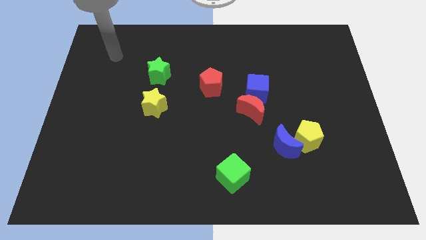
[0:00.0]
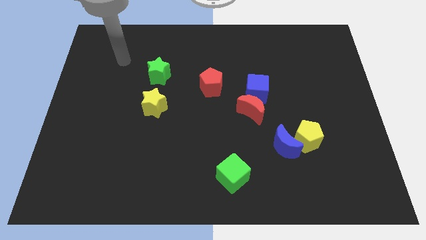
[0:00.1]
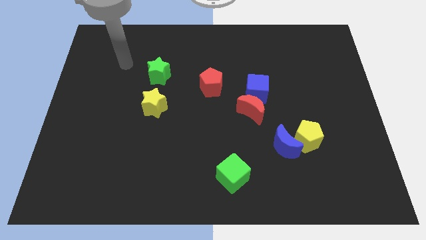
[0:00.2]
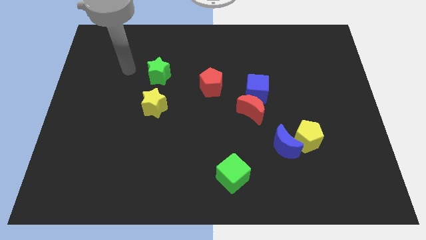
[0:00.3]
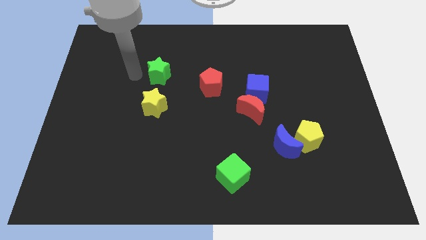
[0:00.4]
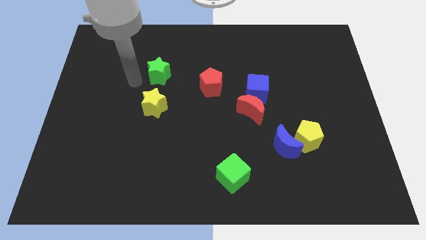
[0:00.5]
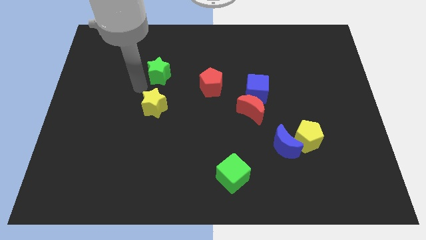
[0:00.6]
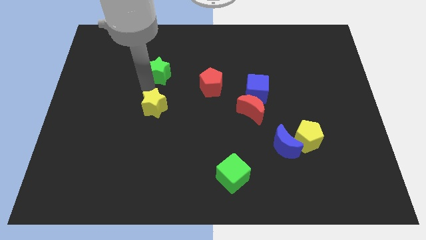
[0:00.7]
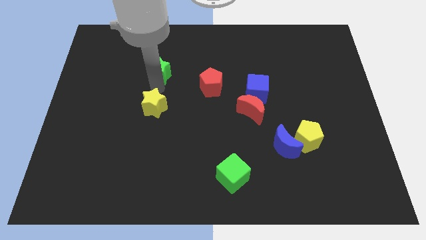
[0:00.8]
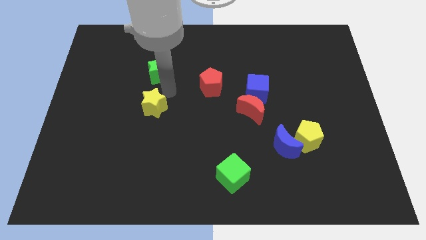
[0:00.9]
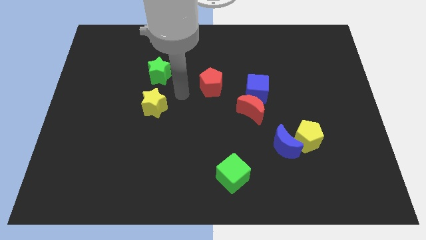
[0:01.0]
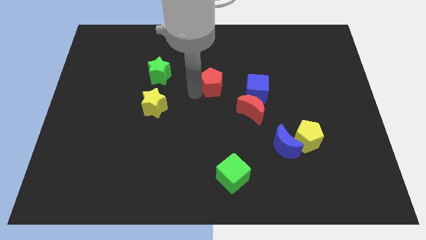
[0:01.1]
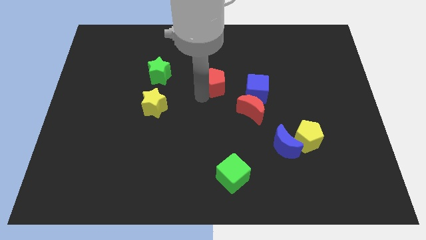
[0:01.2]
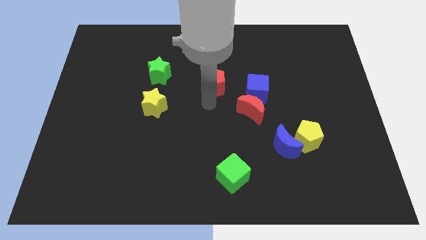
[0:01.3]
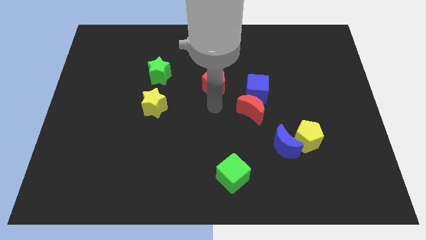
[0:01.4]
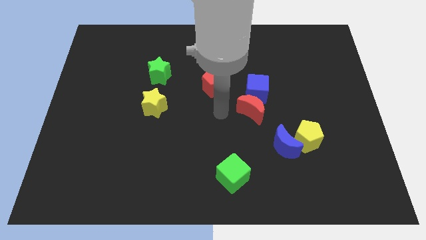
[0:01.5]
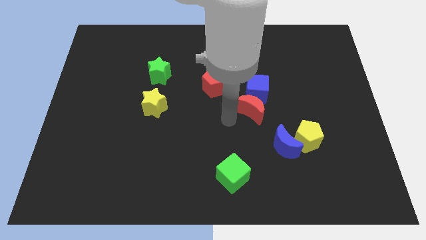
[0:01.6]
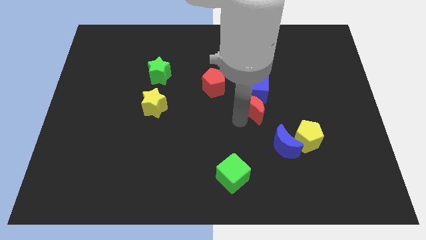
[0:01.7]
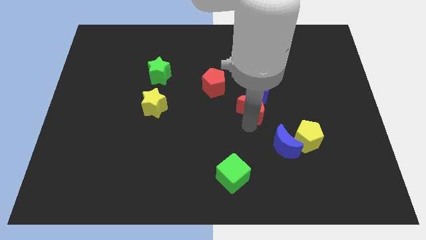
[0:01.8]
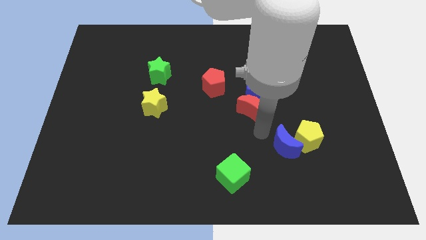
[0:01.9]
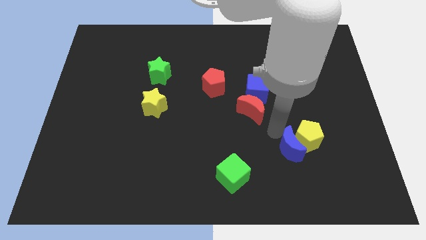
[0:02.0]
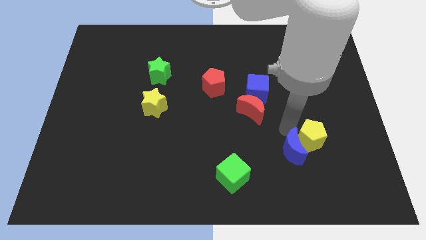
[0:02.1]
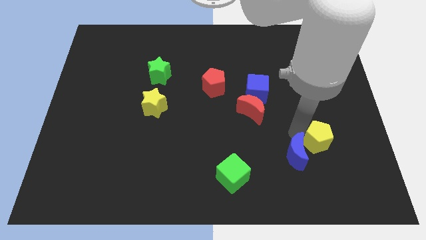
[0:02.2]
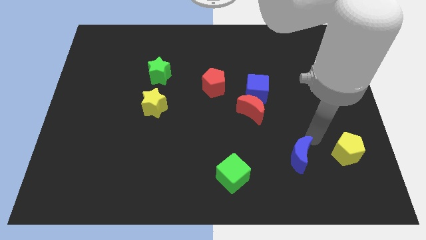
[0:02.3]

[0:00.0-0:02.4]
separate the blue moon from the yellow pentagon

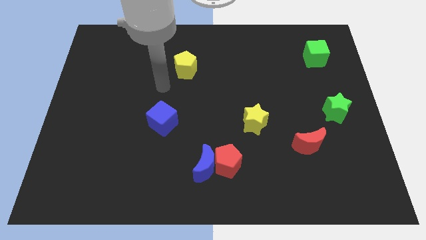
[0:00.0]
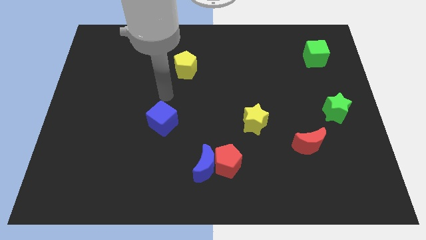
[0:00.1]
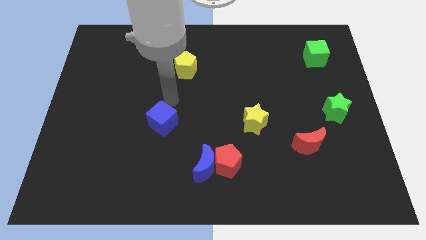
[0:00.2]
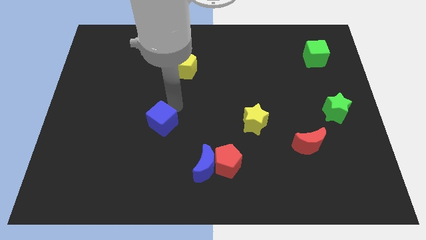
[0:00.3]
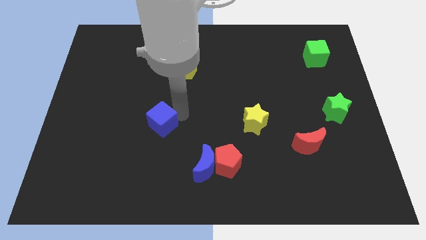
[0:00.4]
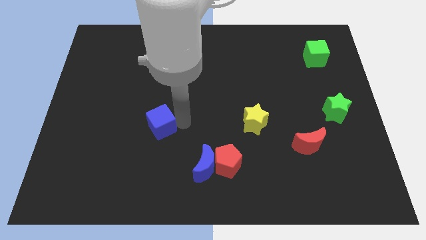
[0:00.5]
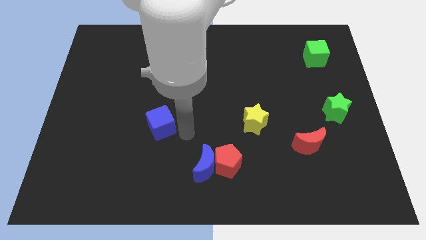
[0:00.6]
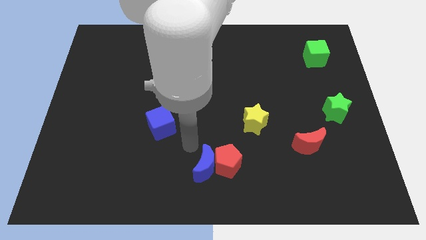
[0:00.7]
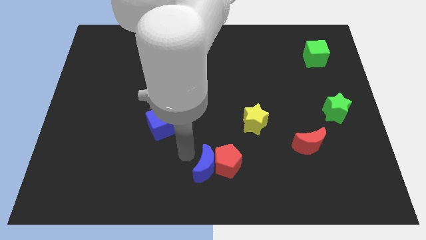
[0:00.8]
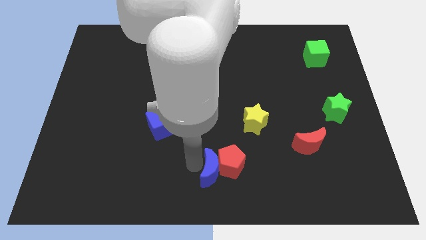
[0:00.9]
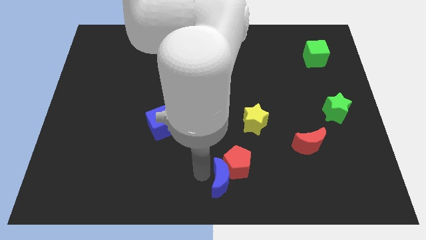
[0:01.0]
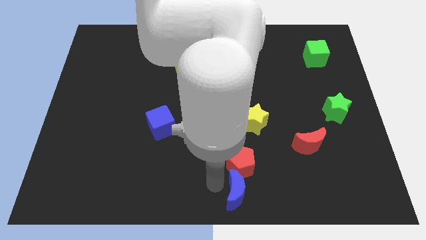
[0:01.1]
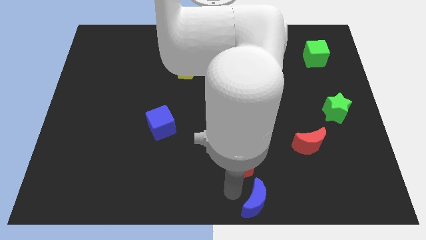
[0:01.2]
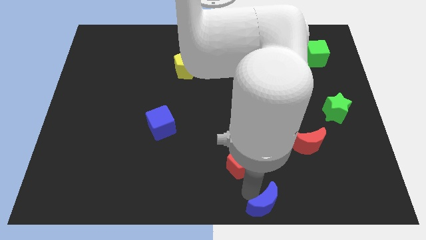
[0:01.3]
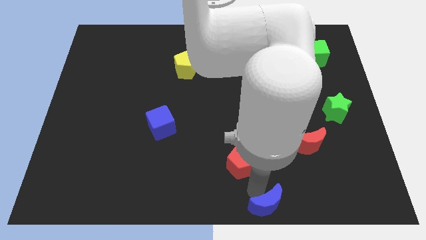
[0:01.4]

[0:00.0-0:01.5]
separate the red pentagon from the blue moon

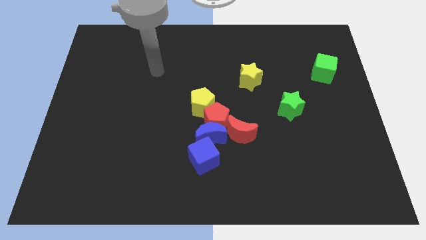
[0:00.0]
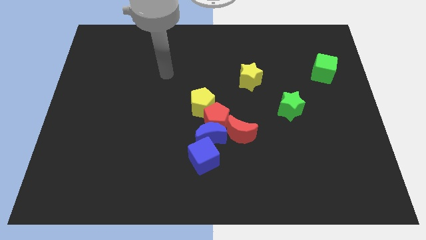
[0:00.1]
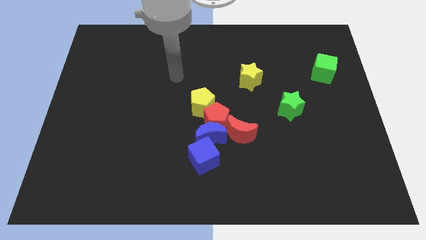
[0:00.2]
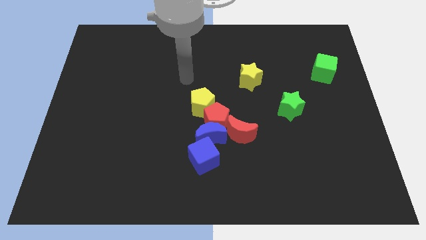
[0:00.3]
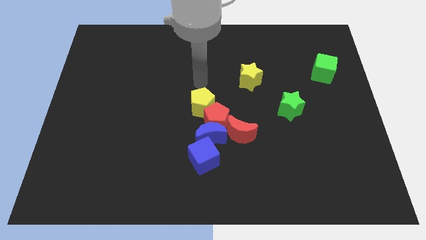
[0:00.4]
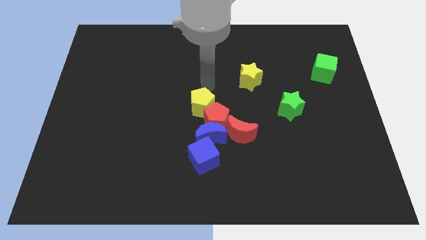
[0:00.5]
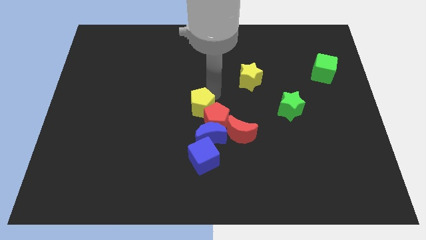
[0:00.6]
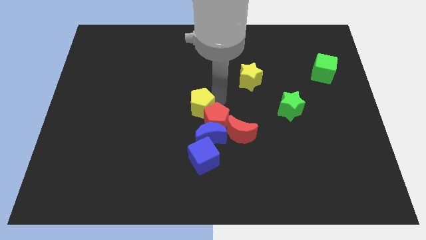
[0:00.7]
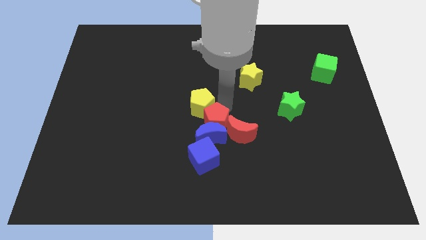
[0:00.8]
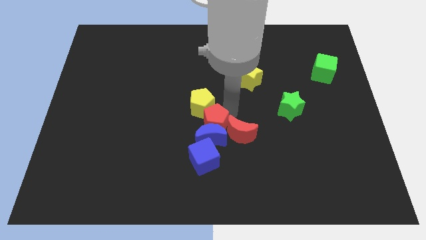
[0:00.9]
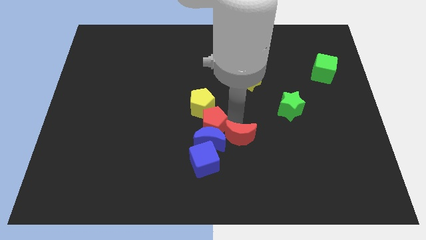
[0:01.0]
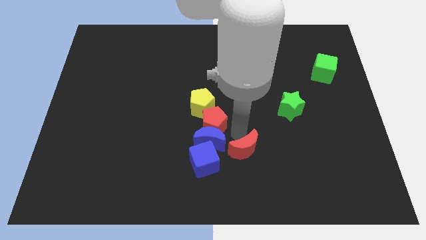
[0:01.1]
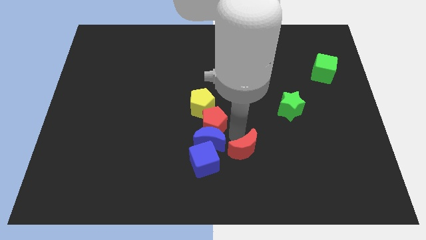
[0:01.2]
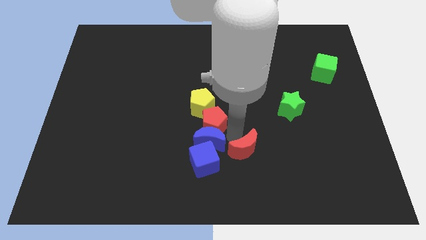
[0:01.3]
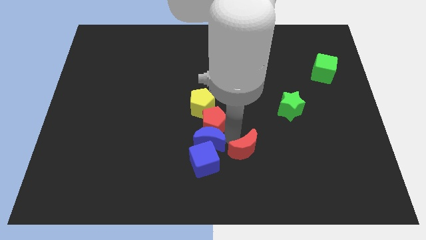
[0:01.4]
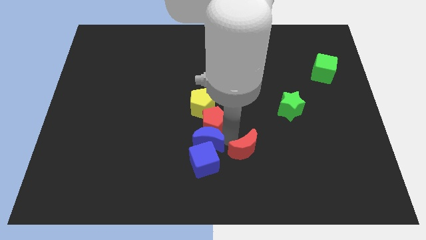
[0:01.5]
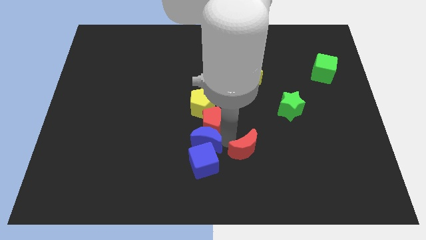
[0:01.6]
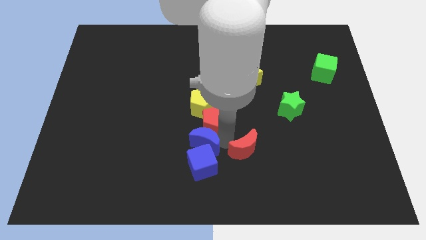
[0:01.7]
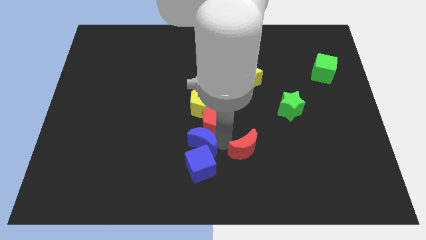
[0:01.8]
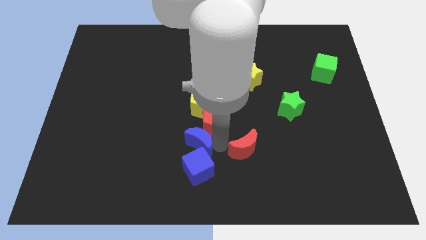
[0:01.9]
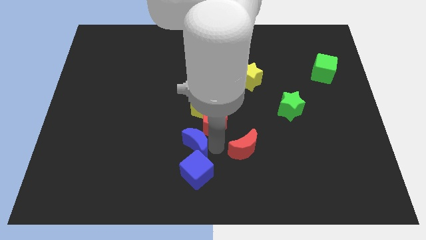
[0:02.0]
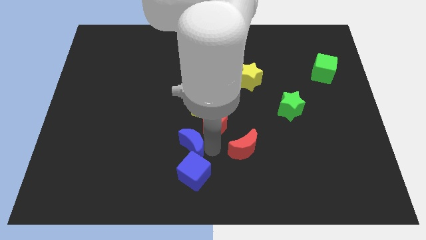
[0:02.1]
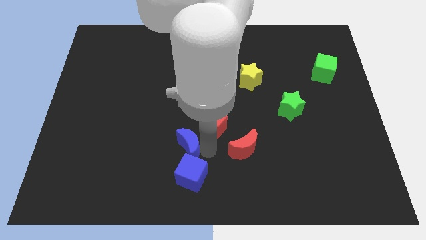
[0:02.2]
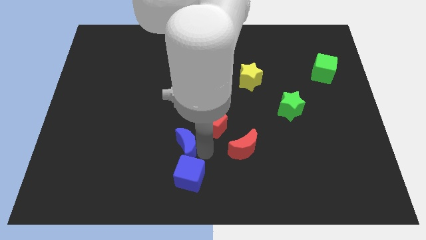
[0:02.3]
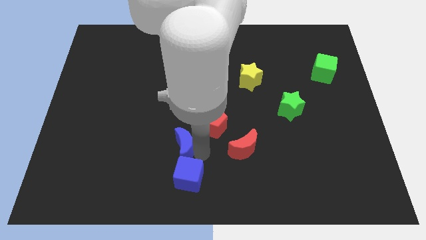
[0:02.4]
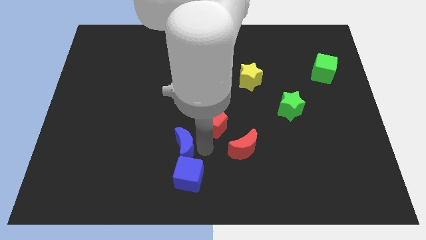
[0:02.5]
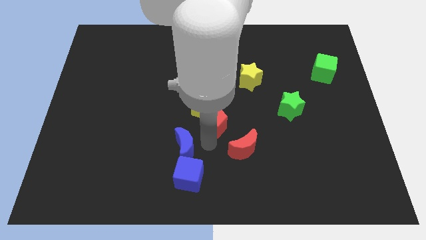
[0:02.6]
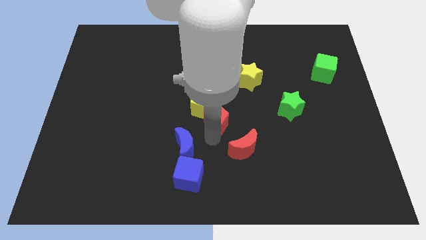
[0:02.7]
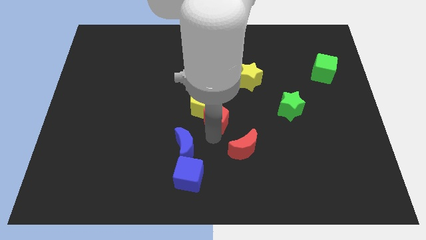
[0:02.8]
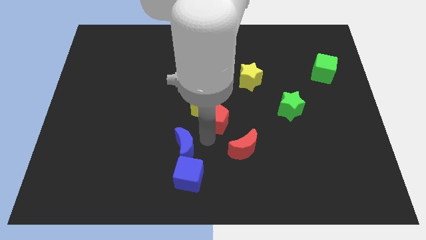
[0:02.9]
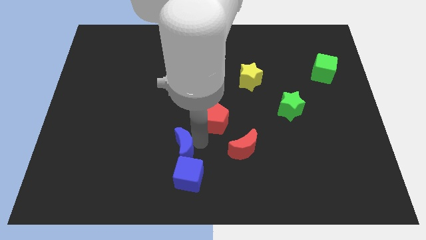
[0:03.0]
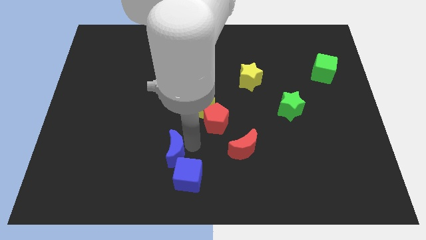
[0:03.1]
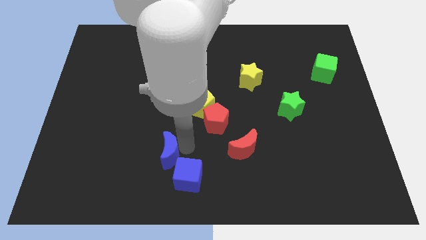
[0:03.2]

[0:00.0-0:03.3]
separate the blue moon from the clump

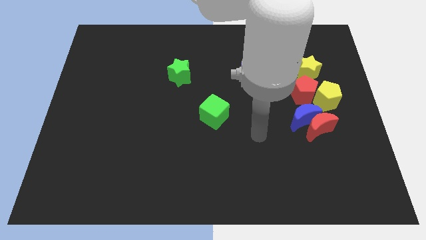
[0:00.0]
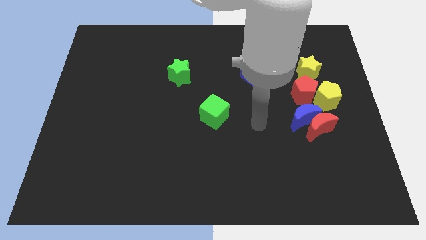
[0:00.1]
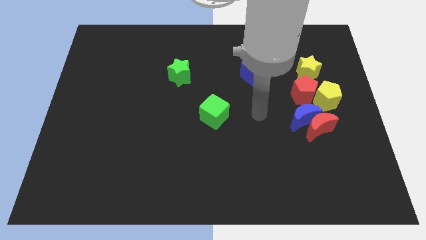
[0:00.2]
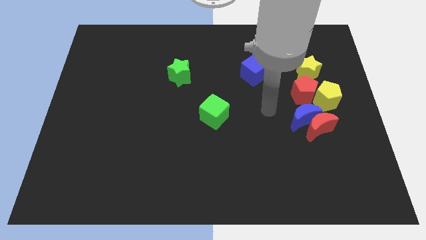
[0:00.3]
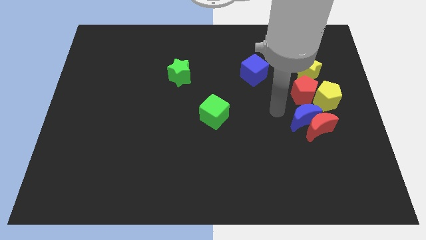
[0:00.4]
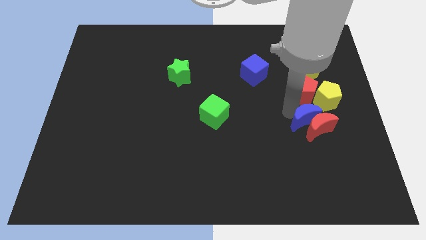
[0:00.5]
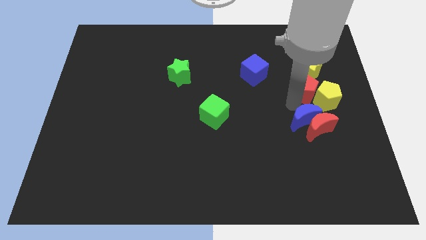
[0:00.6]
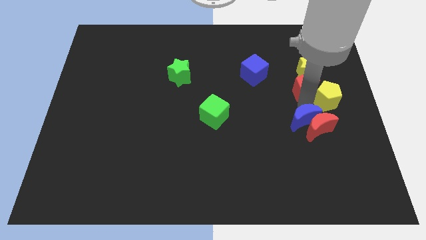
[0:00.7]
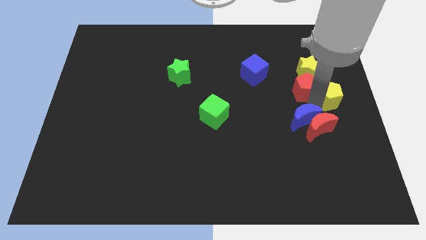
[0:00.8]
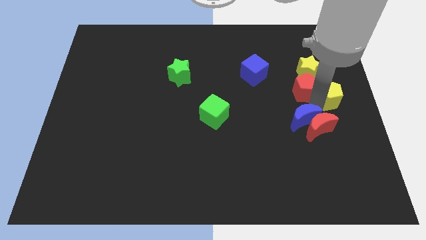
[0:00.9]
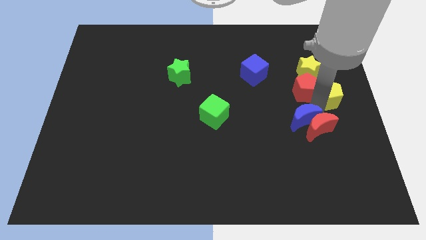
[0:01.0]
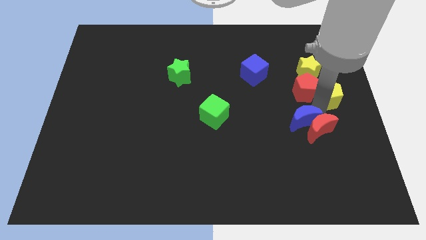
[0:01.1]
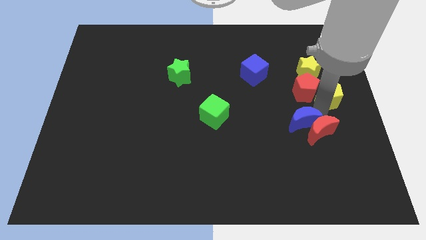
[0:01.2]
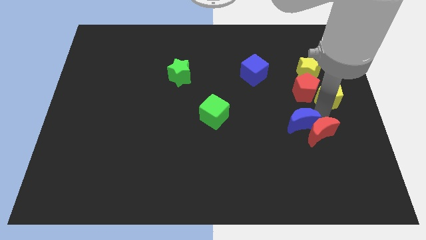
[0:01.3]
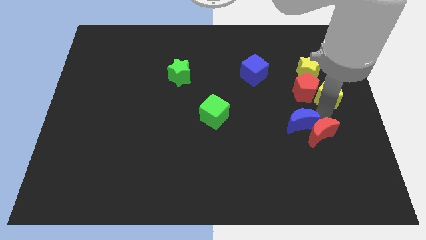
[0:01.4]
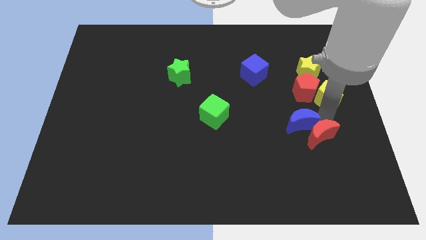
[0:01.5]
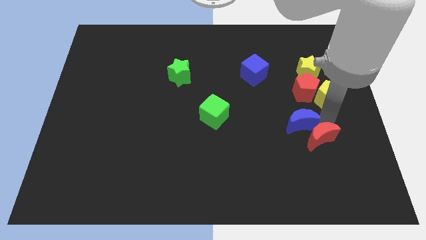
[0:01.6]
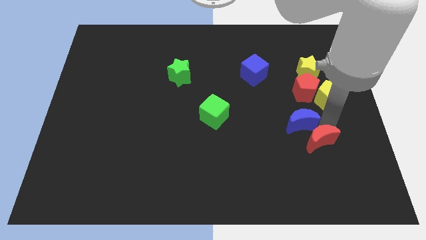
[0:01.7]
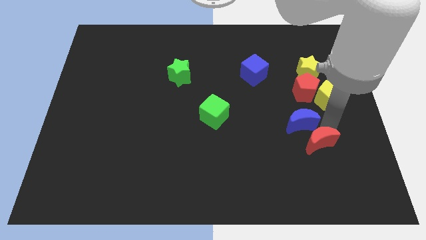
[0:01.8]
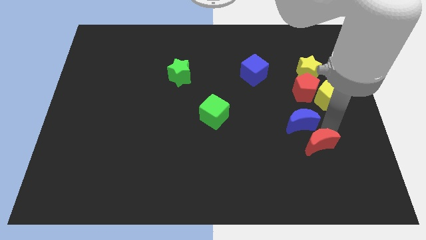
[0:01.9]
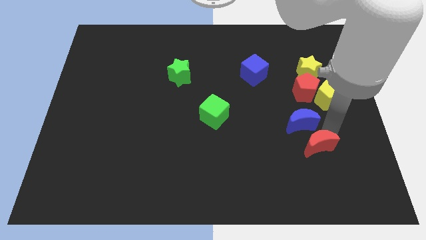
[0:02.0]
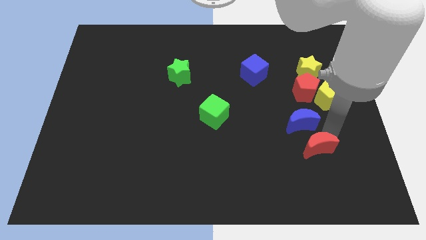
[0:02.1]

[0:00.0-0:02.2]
separate the red moon from the blue moon and yellow pentagon
